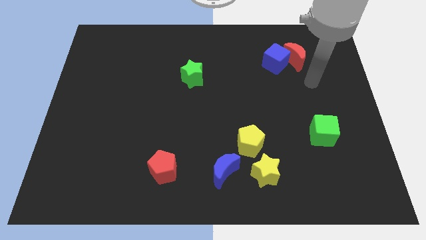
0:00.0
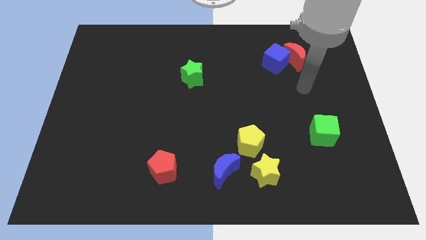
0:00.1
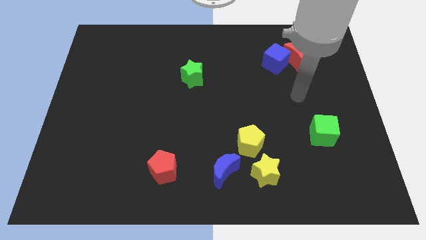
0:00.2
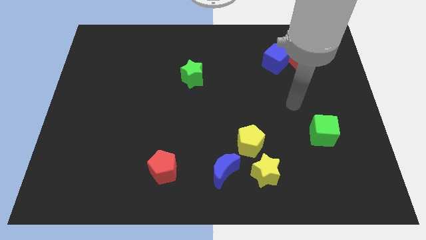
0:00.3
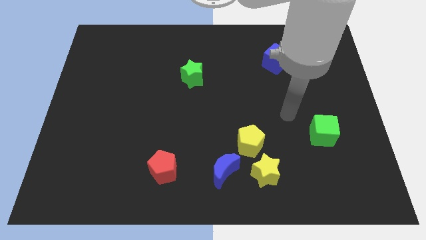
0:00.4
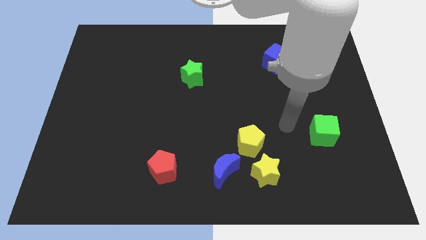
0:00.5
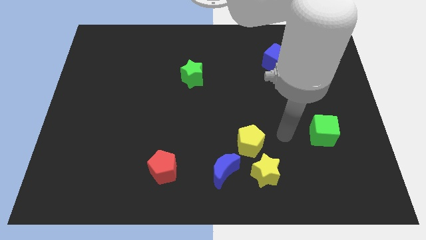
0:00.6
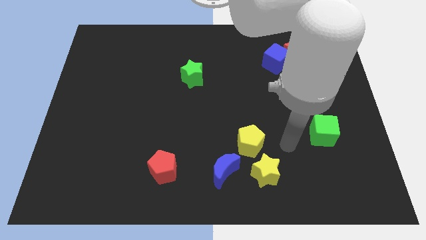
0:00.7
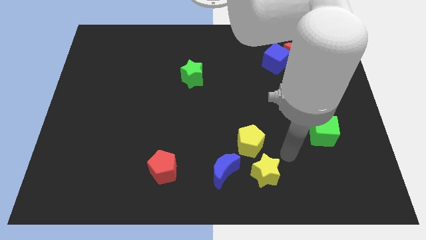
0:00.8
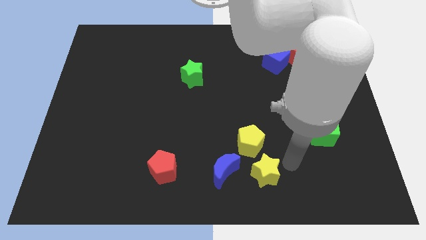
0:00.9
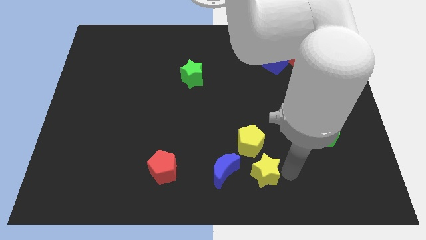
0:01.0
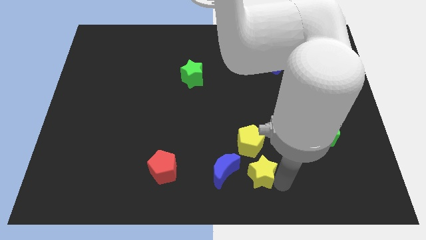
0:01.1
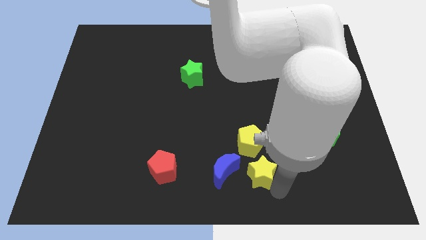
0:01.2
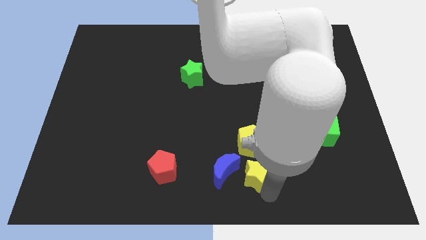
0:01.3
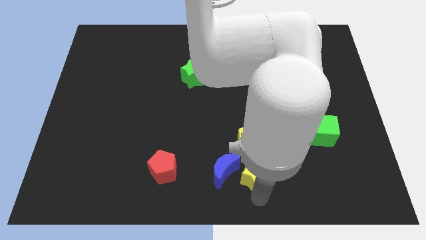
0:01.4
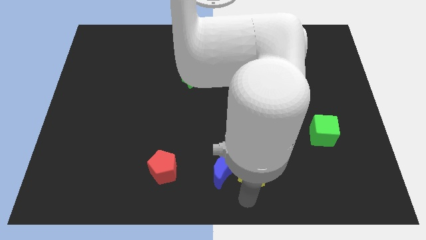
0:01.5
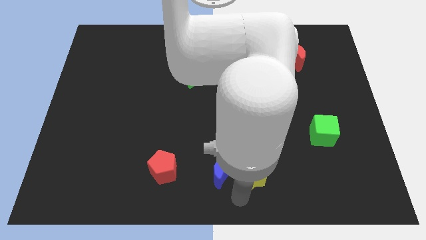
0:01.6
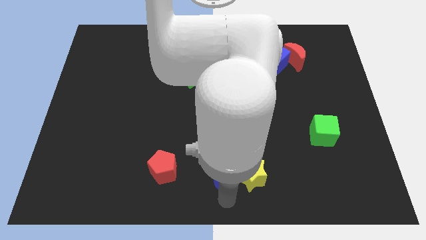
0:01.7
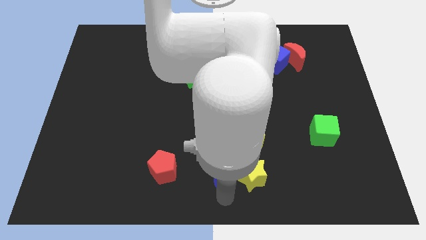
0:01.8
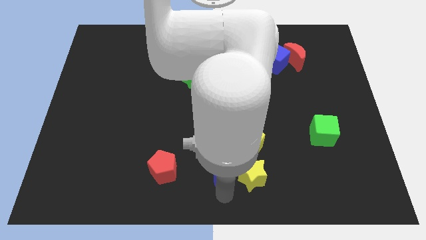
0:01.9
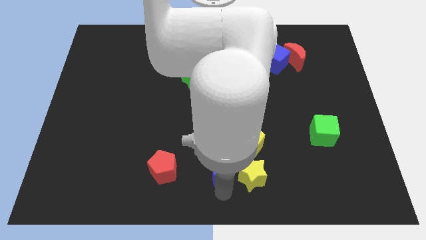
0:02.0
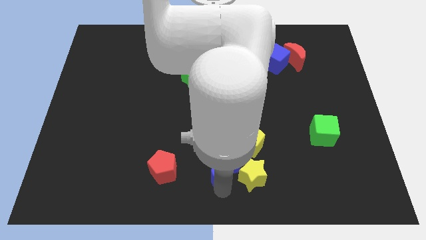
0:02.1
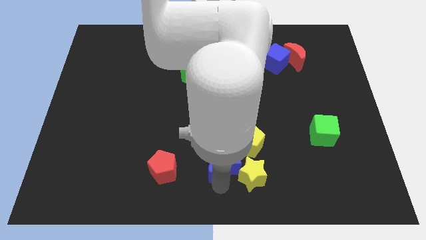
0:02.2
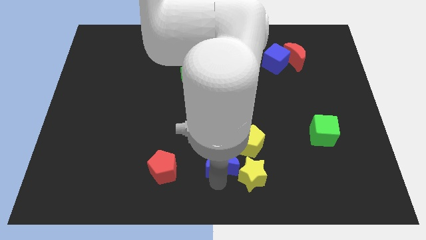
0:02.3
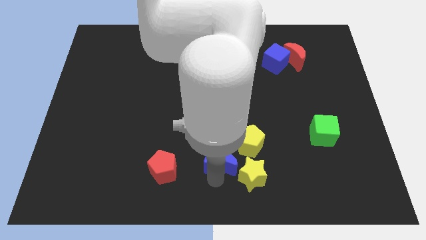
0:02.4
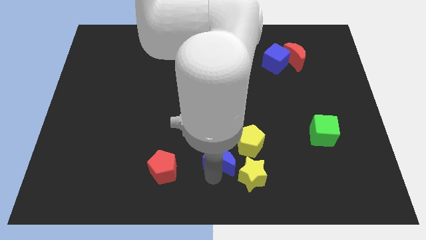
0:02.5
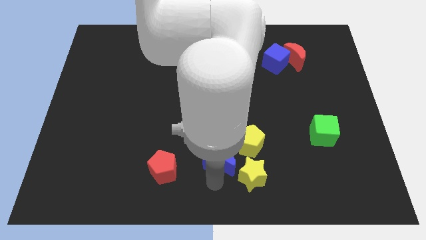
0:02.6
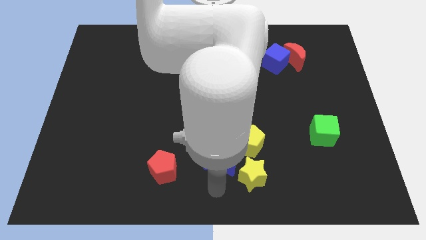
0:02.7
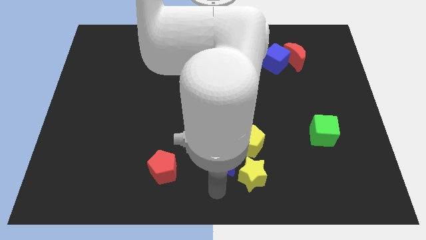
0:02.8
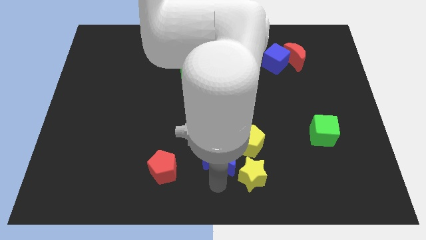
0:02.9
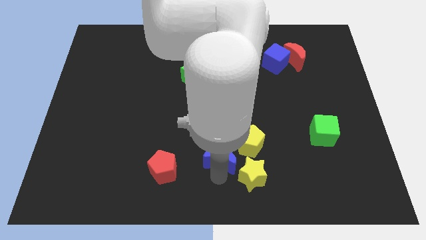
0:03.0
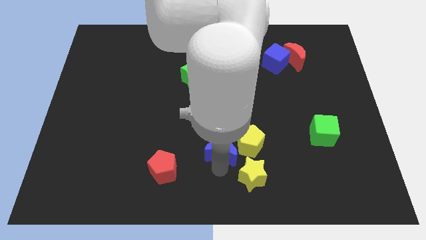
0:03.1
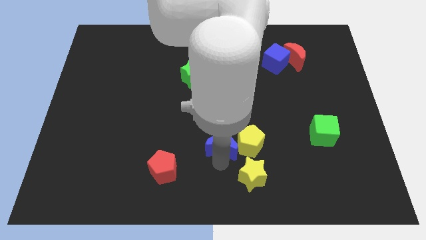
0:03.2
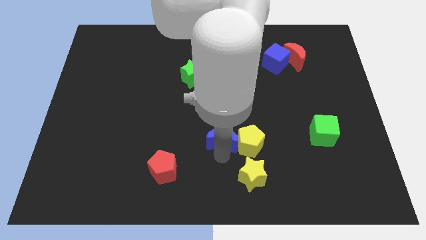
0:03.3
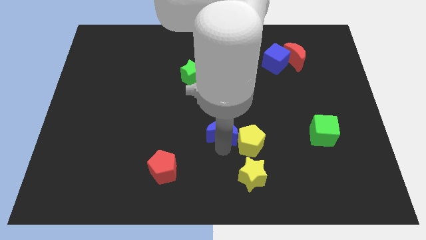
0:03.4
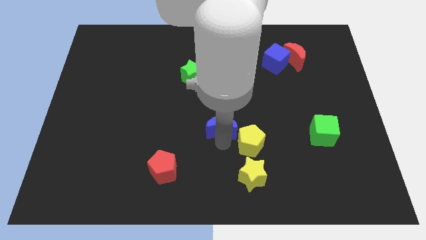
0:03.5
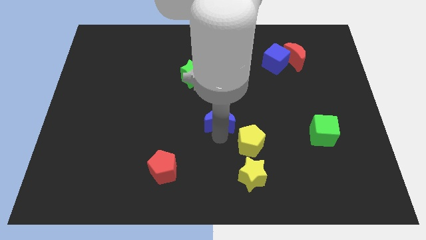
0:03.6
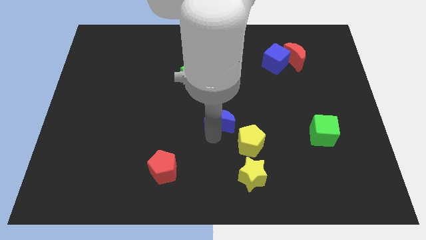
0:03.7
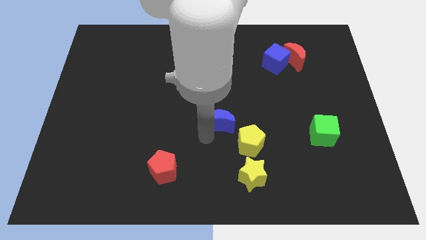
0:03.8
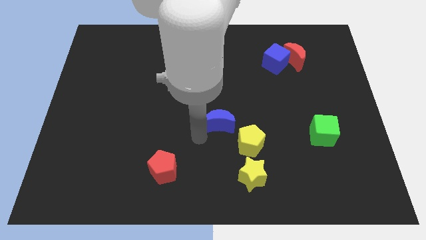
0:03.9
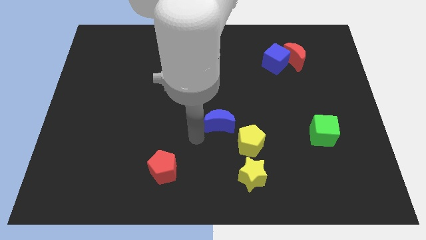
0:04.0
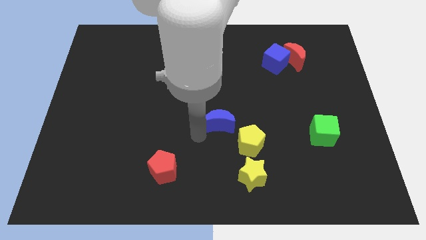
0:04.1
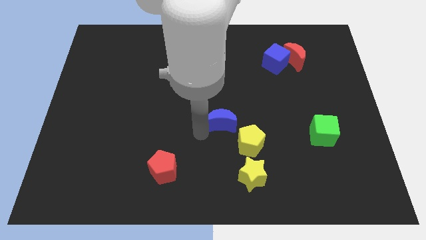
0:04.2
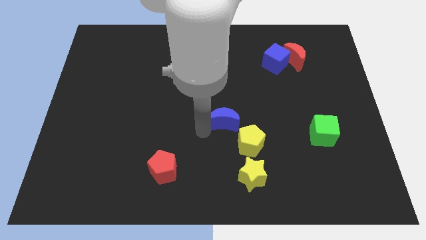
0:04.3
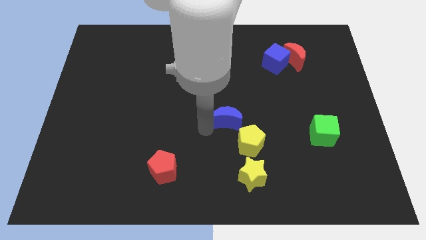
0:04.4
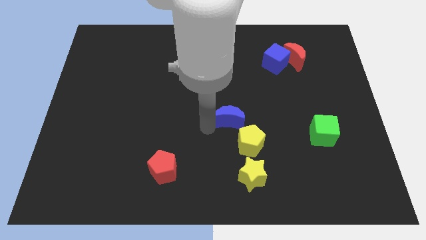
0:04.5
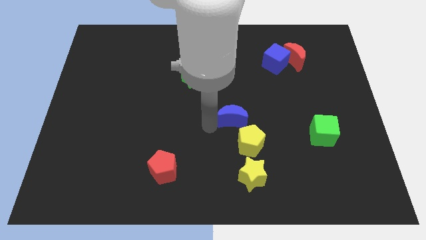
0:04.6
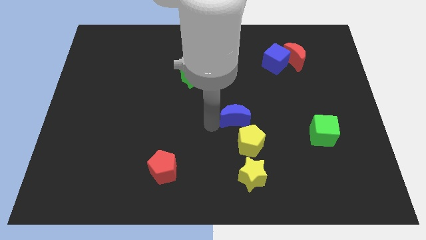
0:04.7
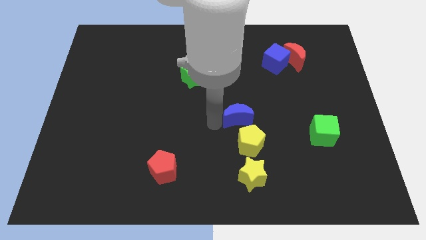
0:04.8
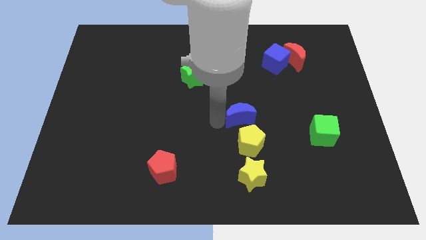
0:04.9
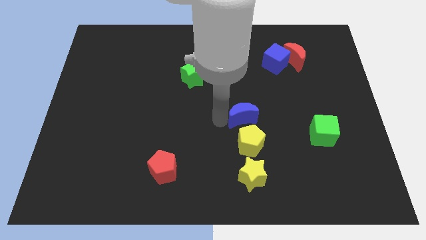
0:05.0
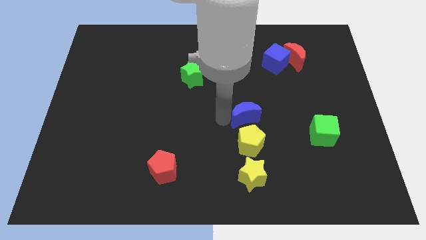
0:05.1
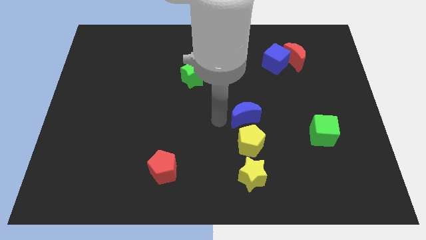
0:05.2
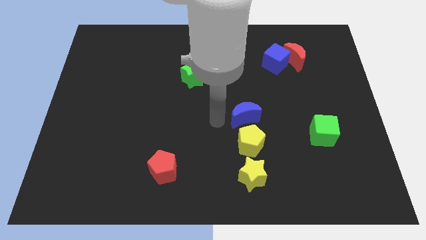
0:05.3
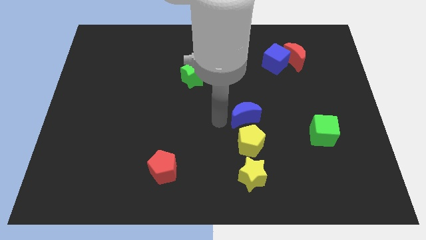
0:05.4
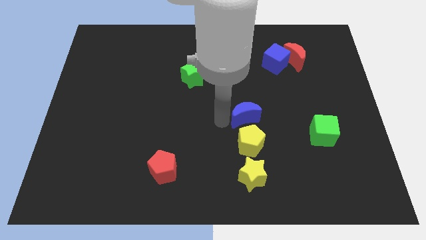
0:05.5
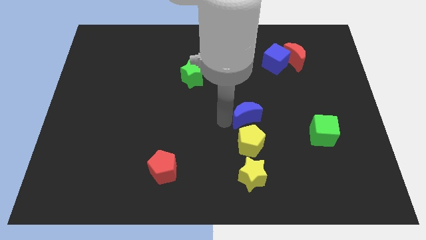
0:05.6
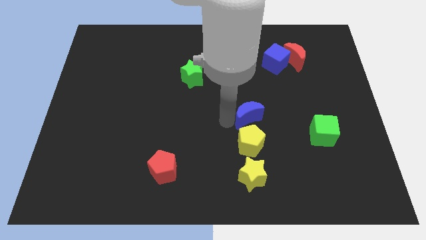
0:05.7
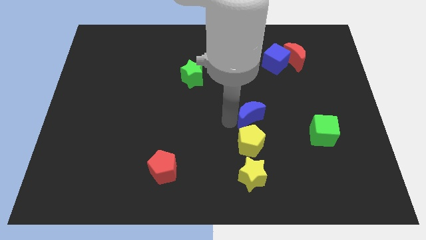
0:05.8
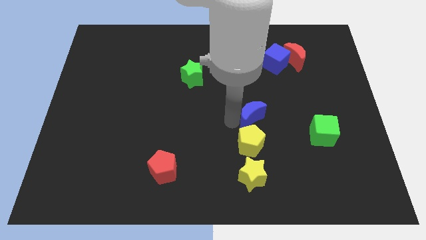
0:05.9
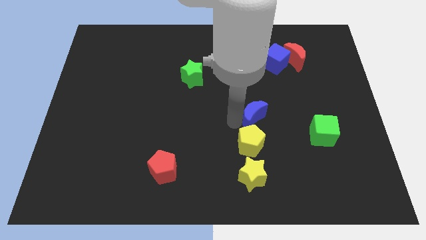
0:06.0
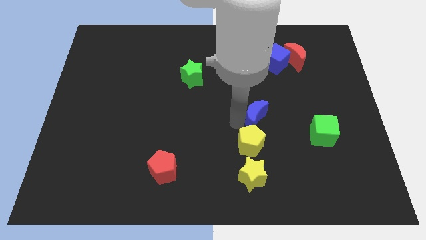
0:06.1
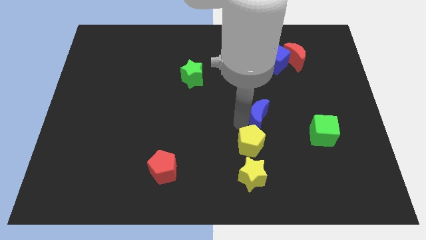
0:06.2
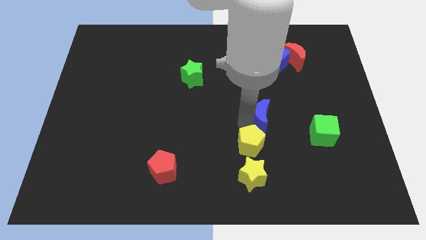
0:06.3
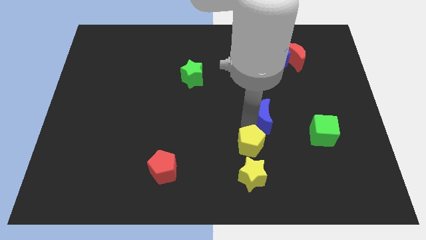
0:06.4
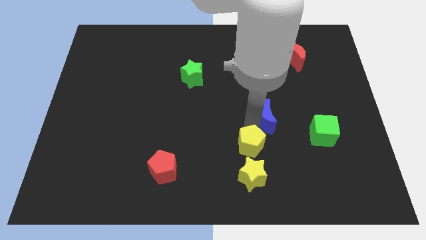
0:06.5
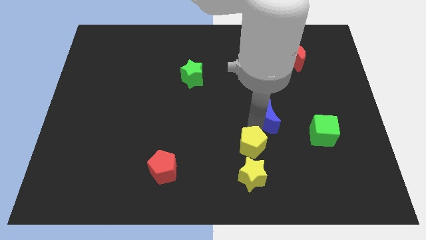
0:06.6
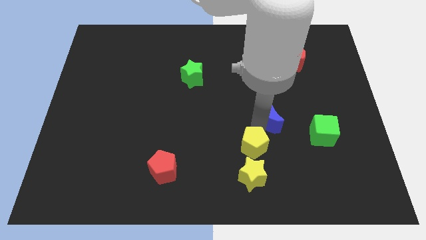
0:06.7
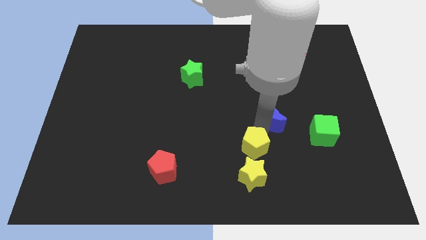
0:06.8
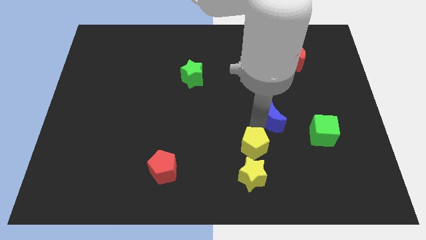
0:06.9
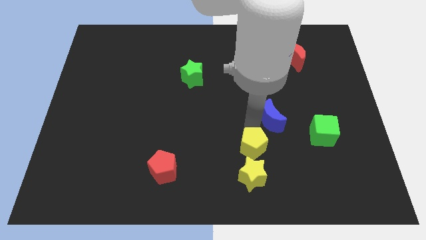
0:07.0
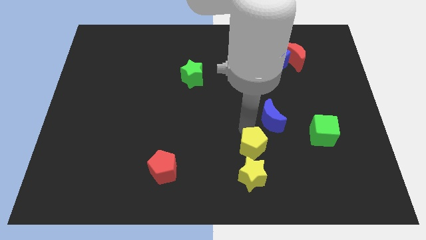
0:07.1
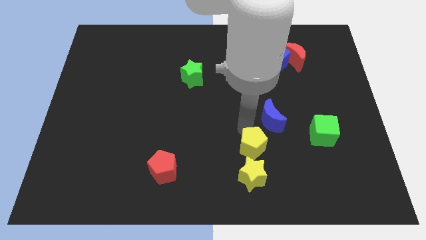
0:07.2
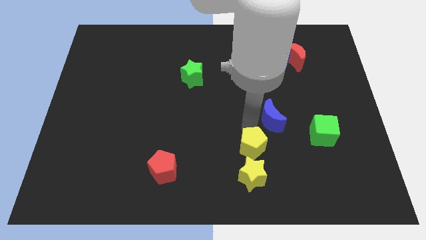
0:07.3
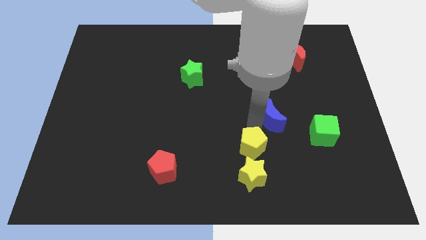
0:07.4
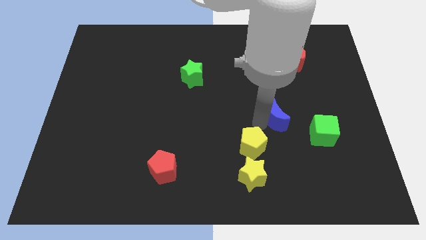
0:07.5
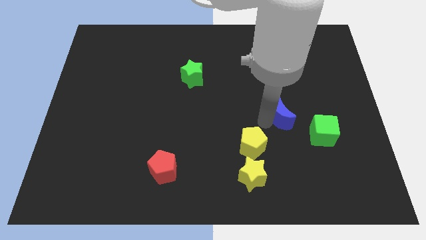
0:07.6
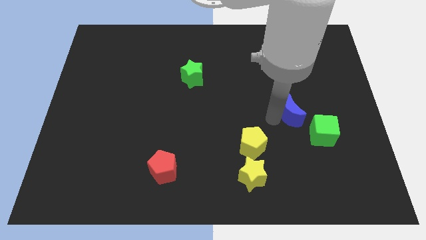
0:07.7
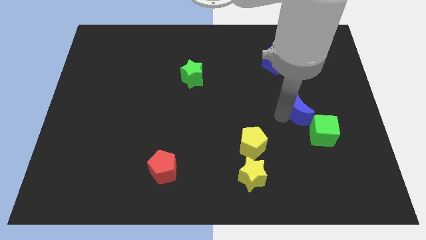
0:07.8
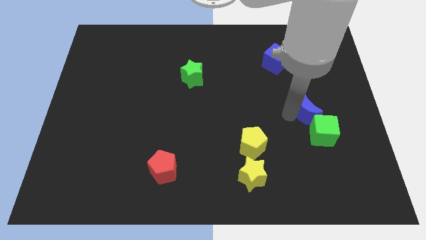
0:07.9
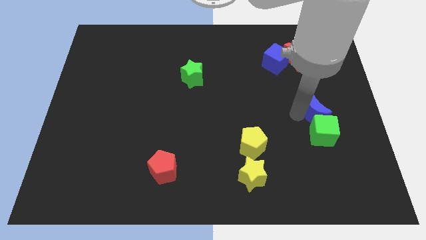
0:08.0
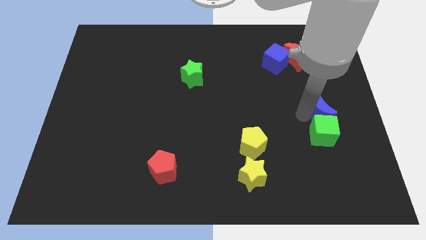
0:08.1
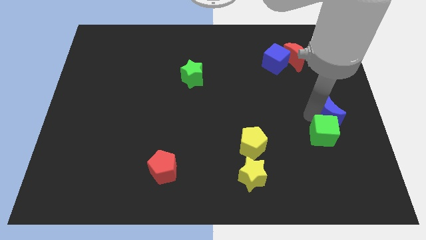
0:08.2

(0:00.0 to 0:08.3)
slide the blue moon to the center right
